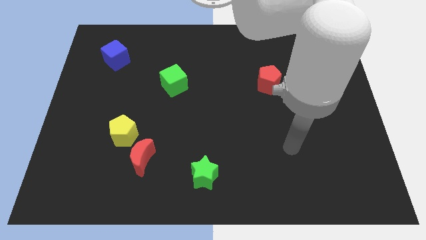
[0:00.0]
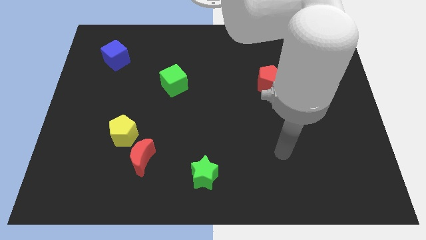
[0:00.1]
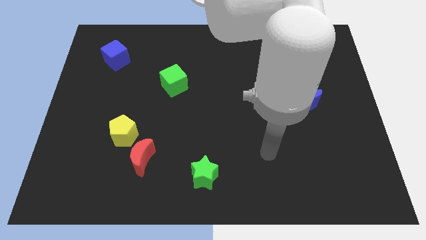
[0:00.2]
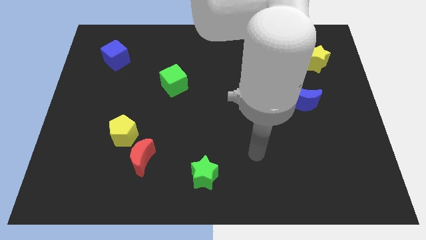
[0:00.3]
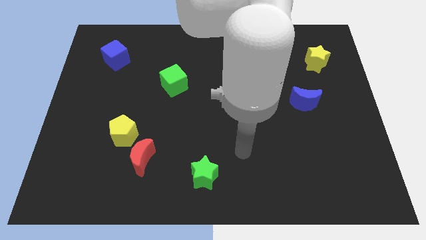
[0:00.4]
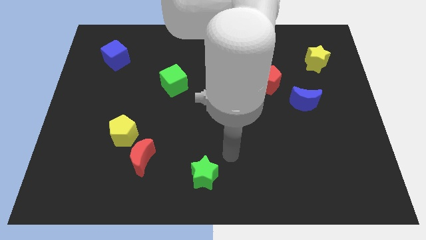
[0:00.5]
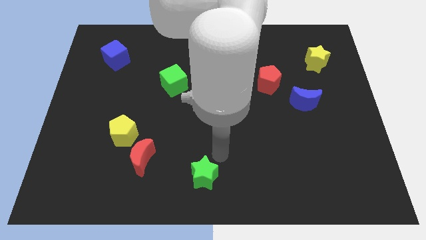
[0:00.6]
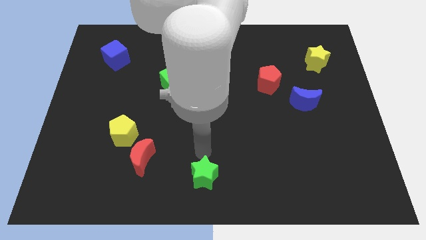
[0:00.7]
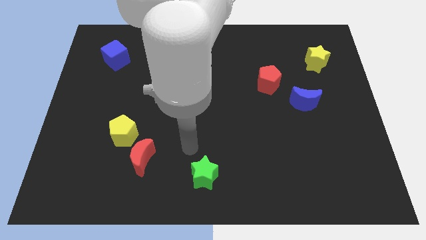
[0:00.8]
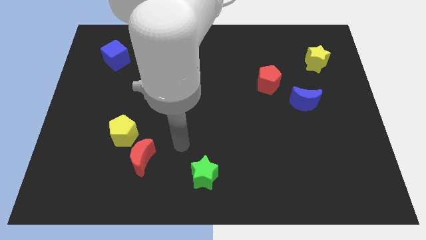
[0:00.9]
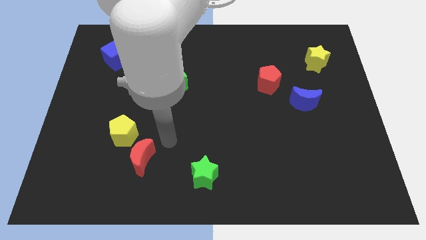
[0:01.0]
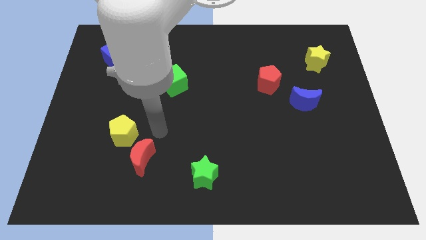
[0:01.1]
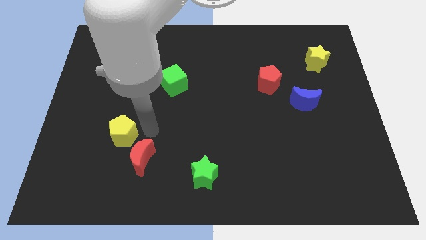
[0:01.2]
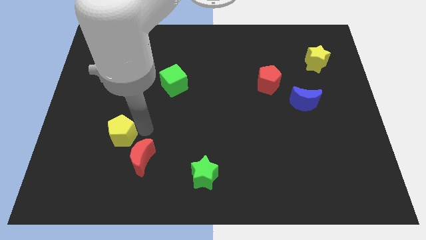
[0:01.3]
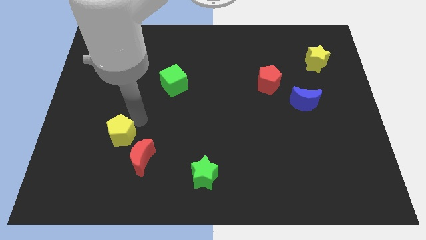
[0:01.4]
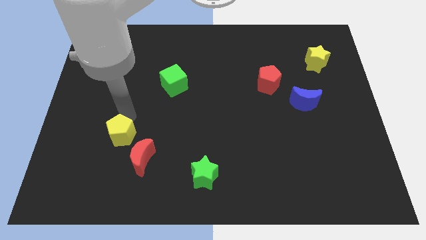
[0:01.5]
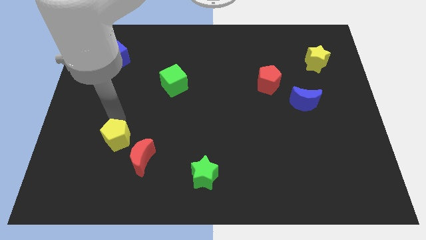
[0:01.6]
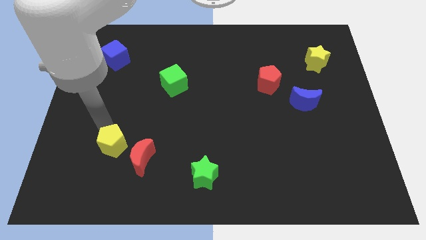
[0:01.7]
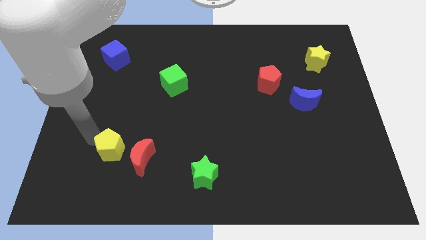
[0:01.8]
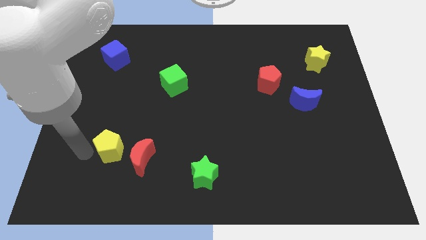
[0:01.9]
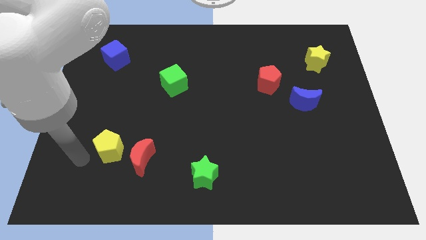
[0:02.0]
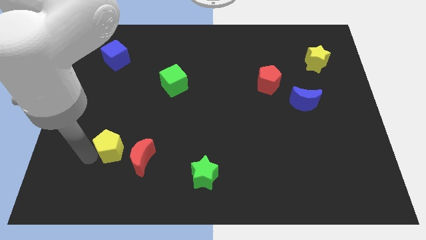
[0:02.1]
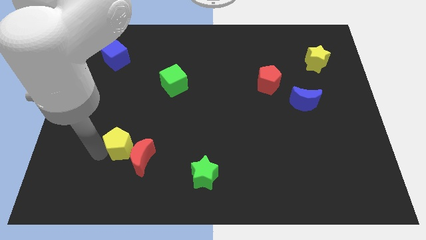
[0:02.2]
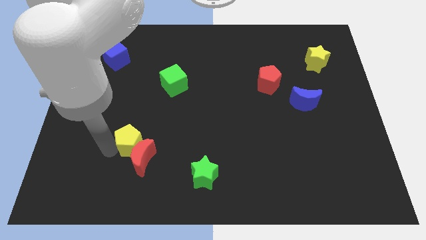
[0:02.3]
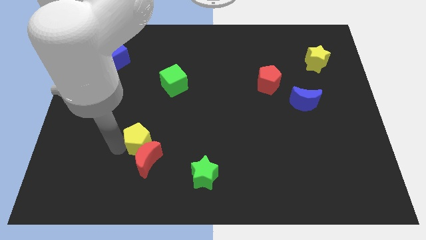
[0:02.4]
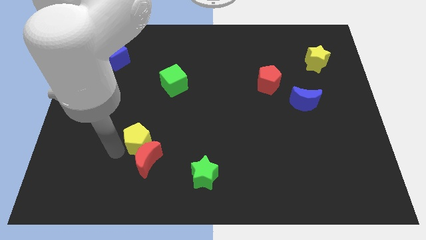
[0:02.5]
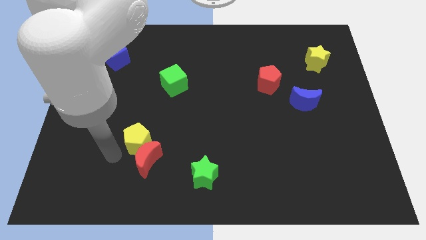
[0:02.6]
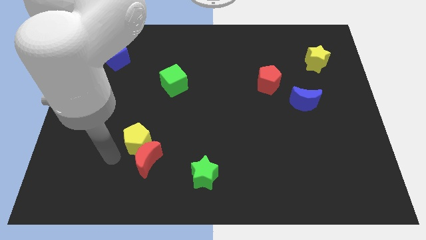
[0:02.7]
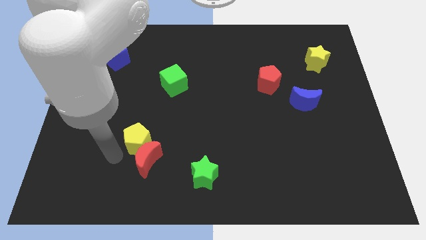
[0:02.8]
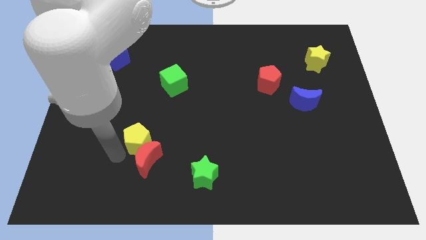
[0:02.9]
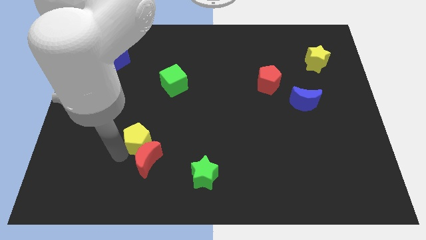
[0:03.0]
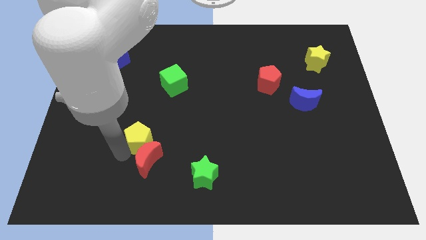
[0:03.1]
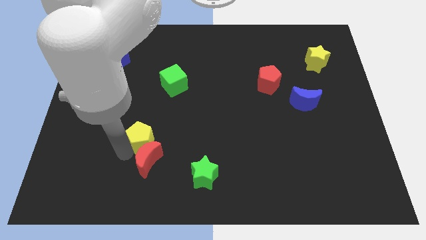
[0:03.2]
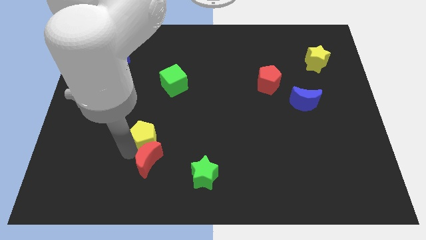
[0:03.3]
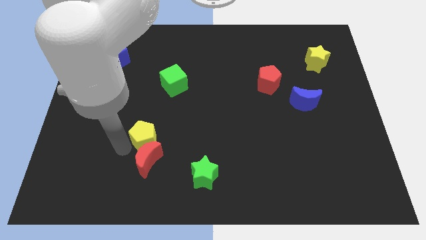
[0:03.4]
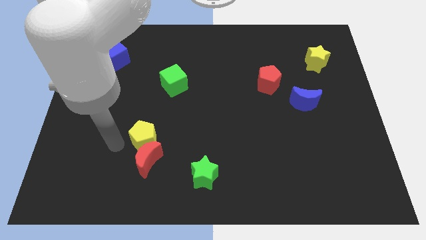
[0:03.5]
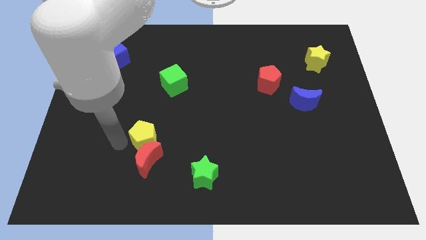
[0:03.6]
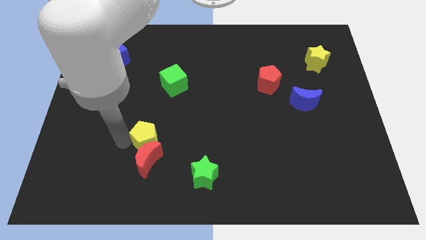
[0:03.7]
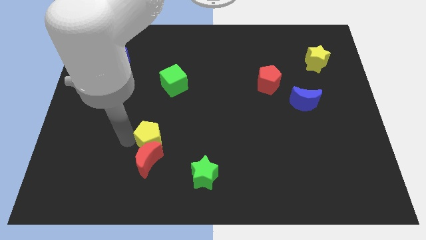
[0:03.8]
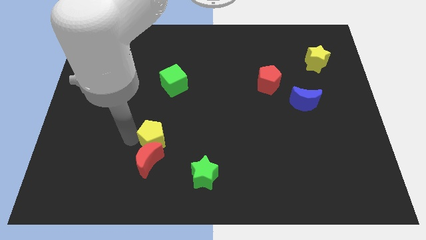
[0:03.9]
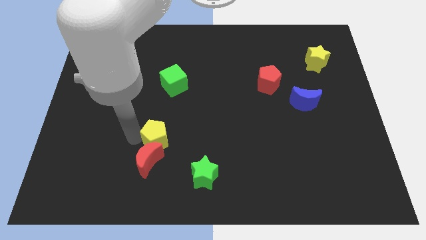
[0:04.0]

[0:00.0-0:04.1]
push the yellow pentagon right a little bit

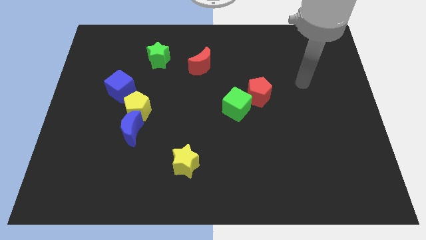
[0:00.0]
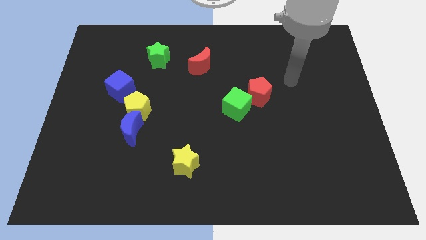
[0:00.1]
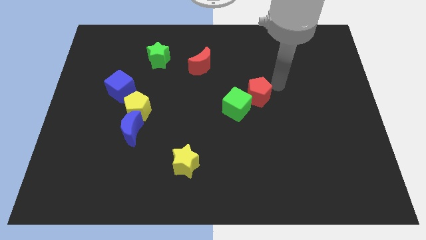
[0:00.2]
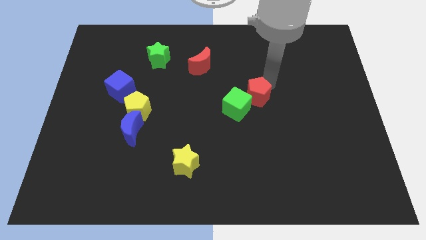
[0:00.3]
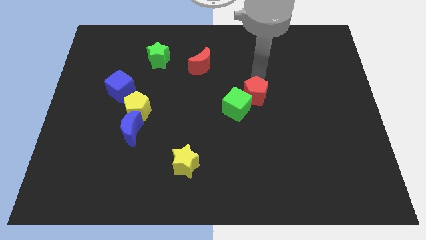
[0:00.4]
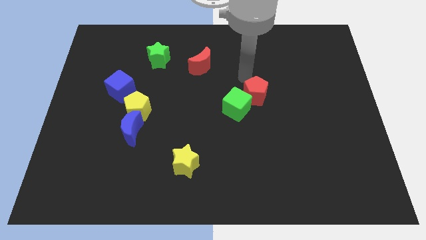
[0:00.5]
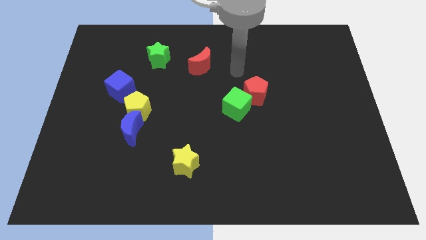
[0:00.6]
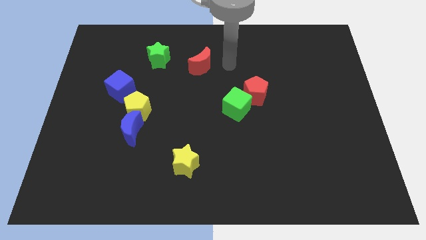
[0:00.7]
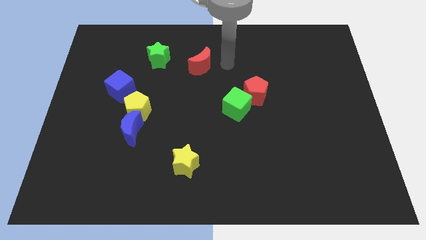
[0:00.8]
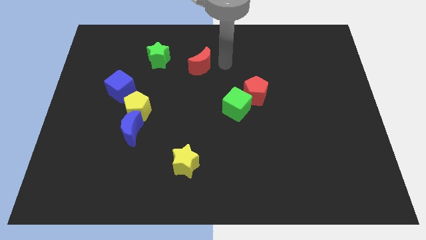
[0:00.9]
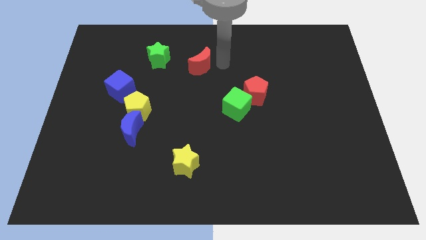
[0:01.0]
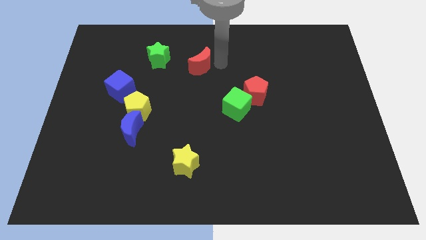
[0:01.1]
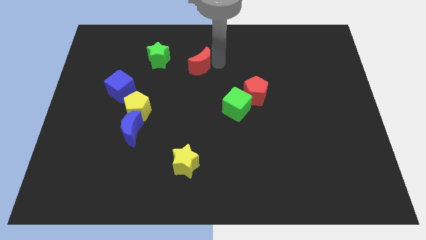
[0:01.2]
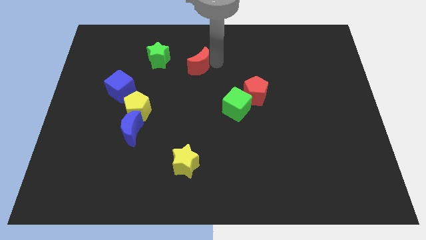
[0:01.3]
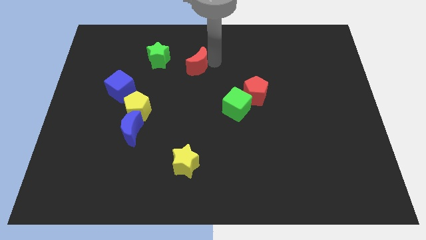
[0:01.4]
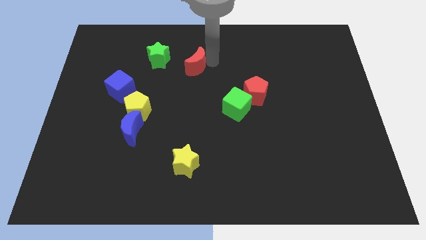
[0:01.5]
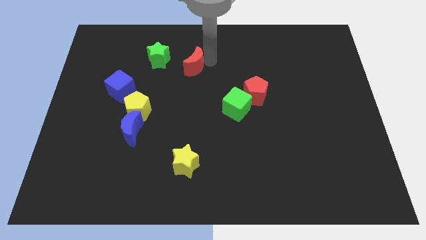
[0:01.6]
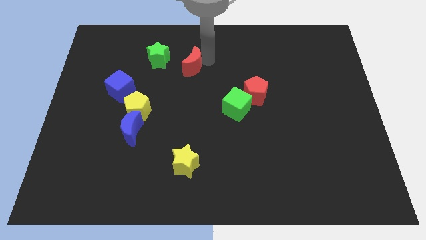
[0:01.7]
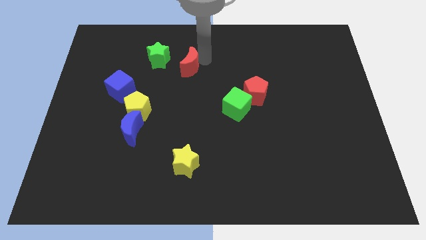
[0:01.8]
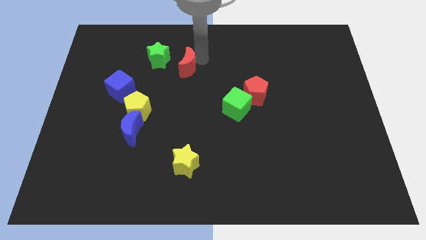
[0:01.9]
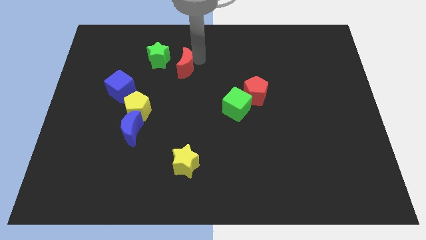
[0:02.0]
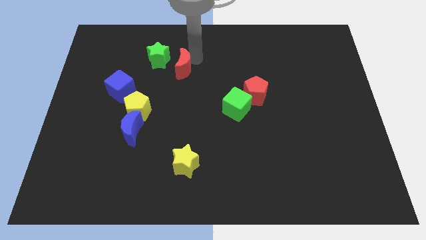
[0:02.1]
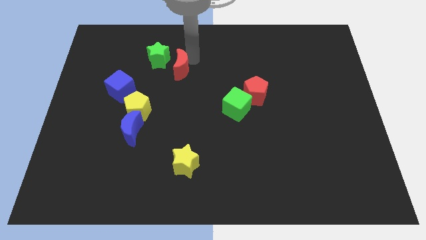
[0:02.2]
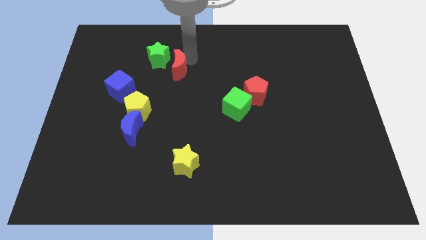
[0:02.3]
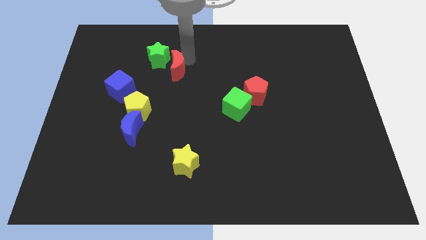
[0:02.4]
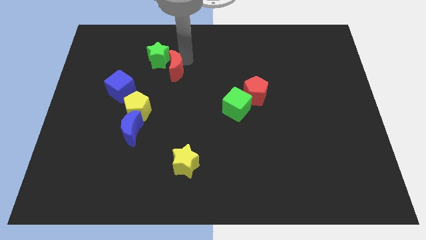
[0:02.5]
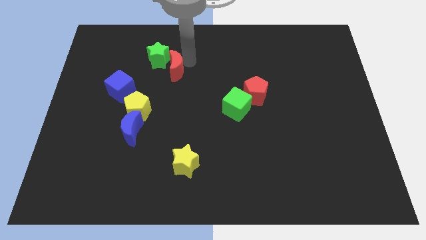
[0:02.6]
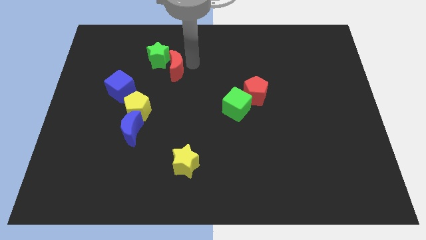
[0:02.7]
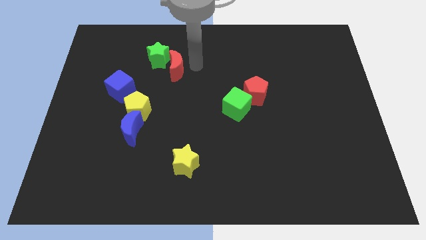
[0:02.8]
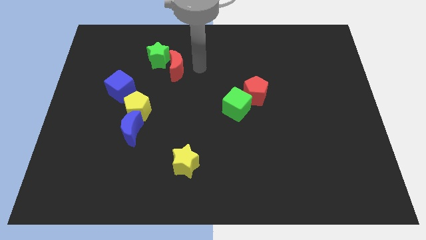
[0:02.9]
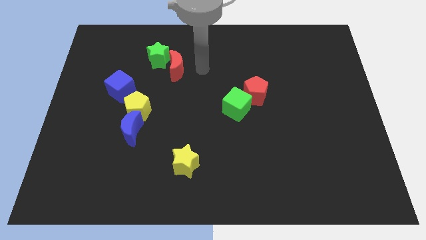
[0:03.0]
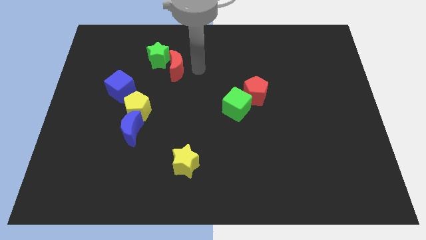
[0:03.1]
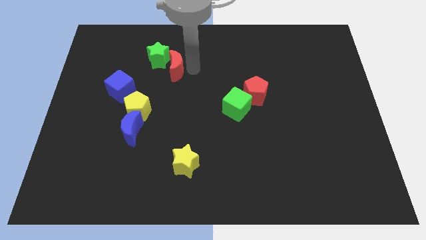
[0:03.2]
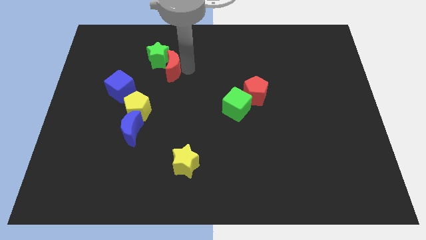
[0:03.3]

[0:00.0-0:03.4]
push the red moon left a bit

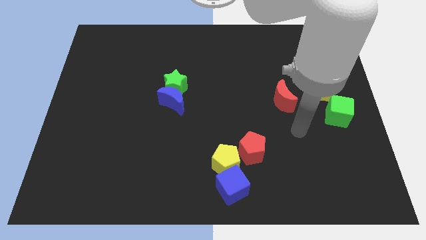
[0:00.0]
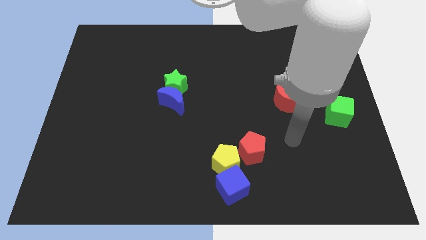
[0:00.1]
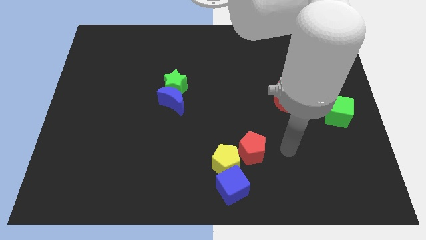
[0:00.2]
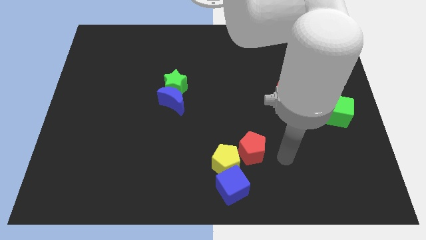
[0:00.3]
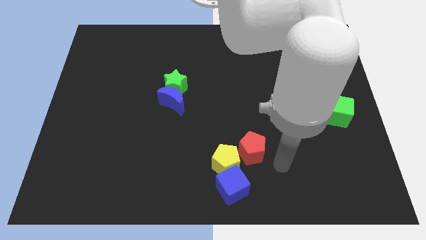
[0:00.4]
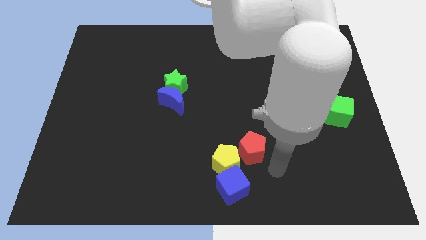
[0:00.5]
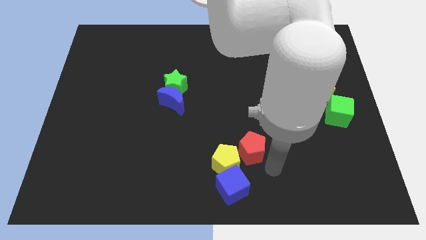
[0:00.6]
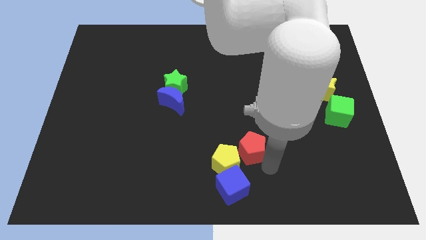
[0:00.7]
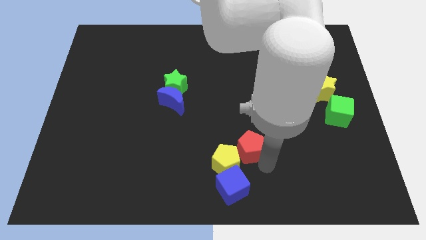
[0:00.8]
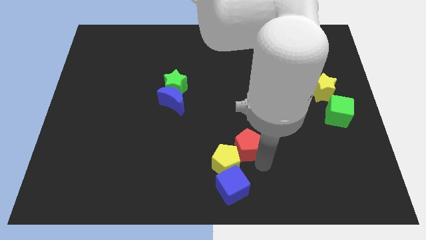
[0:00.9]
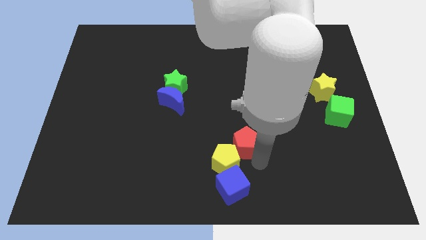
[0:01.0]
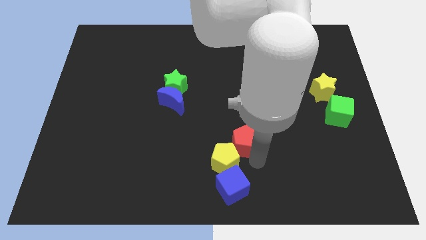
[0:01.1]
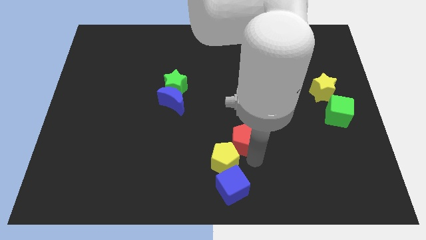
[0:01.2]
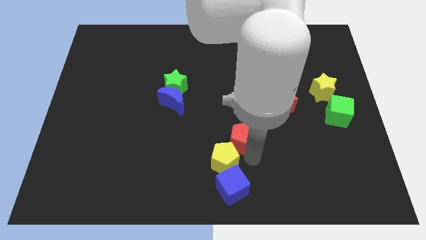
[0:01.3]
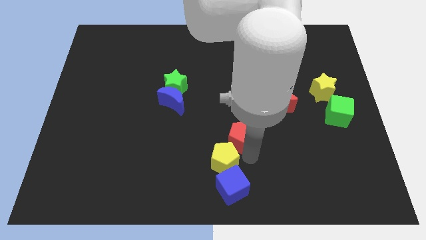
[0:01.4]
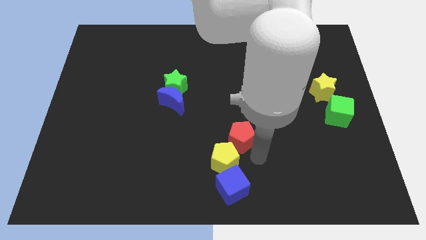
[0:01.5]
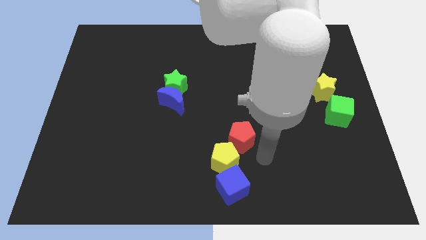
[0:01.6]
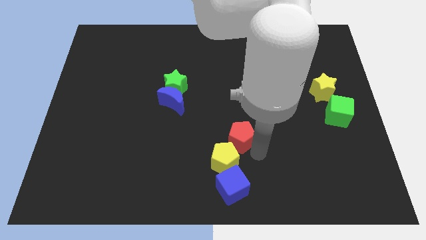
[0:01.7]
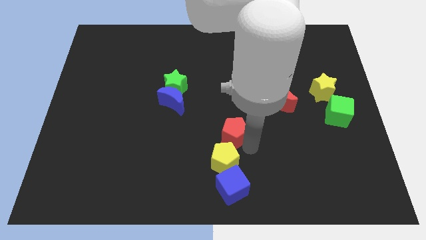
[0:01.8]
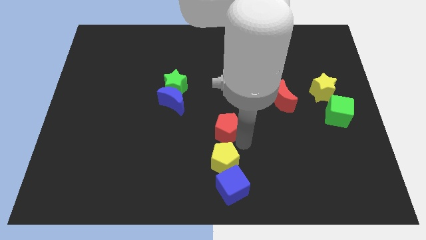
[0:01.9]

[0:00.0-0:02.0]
slightly push the red pentagon up and then left
